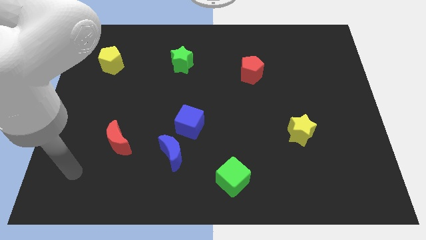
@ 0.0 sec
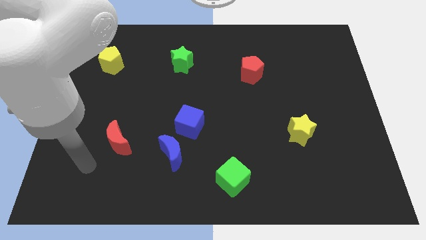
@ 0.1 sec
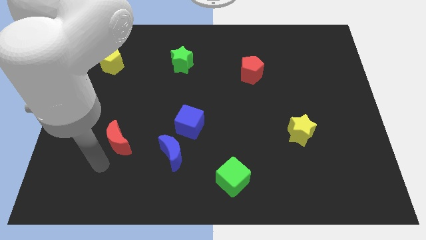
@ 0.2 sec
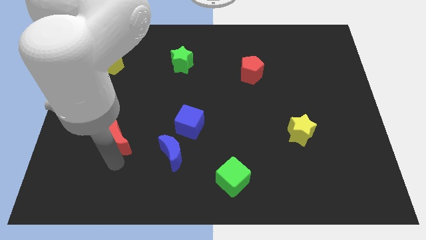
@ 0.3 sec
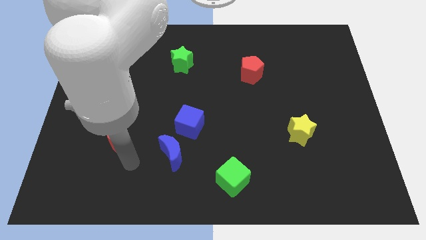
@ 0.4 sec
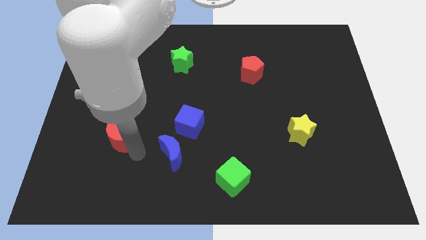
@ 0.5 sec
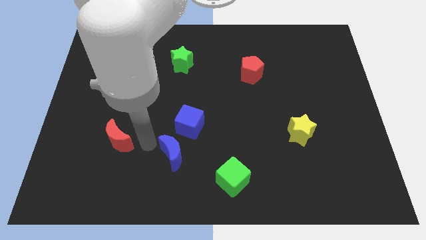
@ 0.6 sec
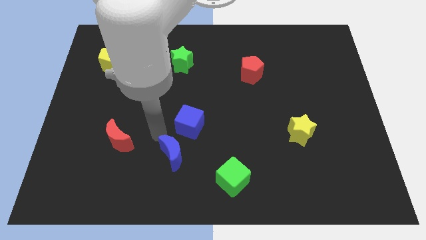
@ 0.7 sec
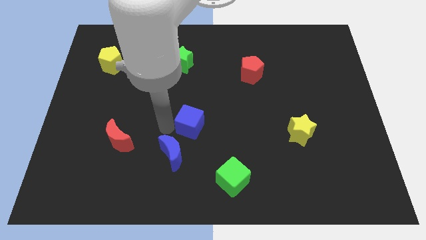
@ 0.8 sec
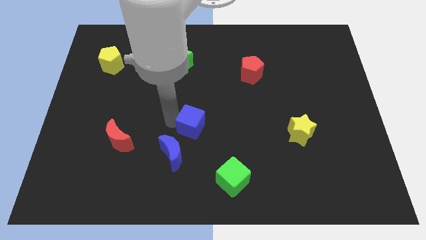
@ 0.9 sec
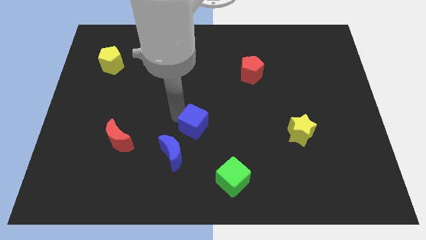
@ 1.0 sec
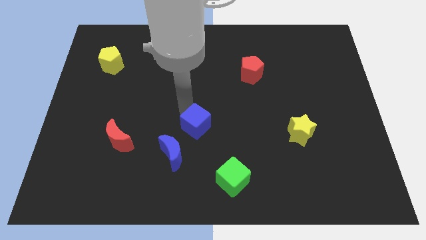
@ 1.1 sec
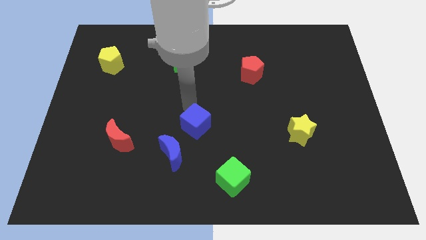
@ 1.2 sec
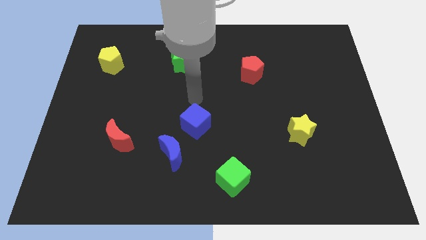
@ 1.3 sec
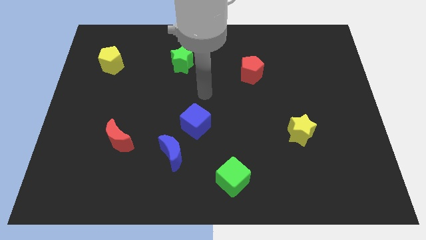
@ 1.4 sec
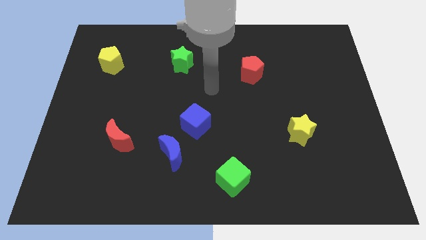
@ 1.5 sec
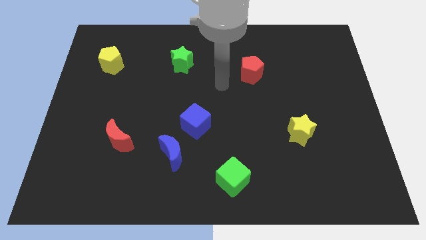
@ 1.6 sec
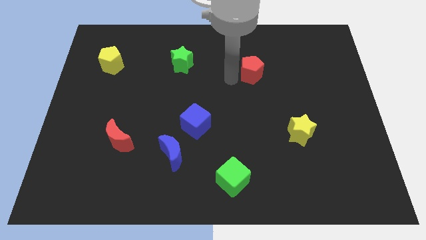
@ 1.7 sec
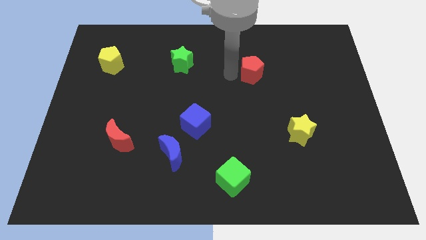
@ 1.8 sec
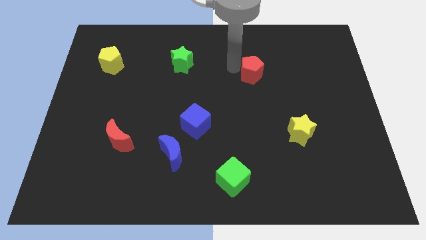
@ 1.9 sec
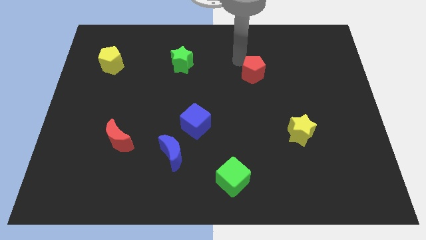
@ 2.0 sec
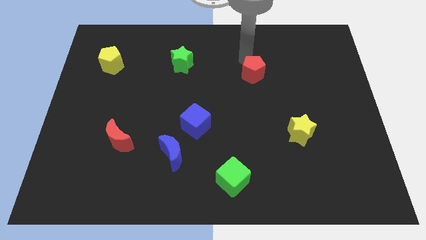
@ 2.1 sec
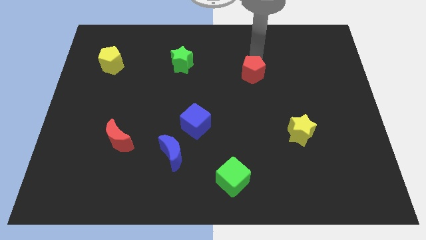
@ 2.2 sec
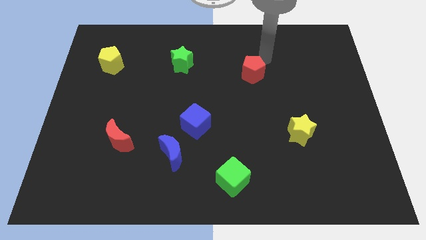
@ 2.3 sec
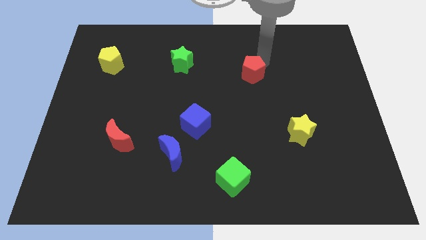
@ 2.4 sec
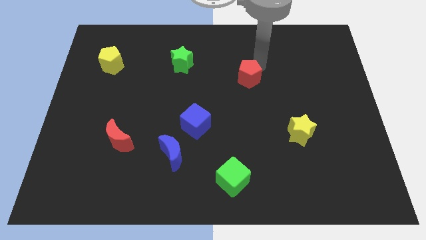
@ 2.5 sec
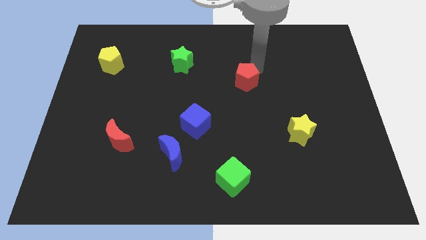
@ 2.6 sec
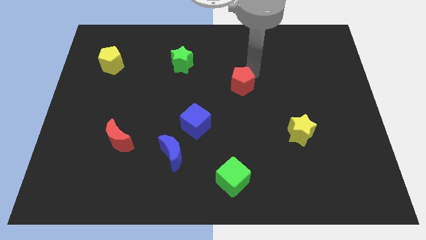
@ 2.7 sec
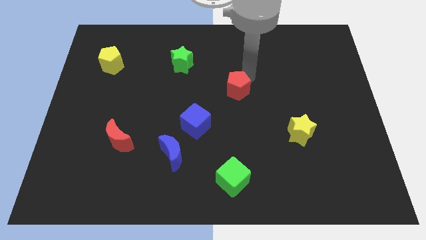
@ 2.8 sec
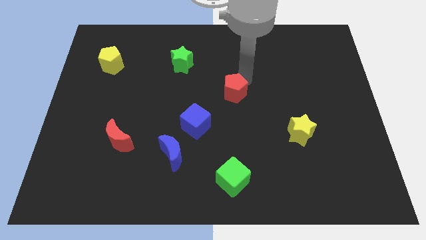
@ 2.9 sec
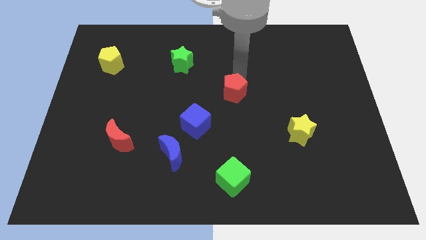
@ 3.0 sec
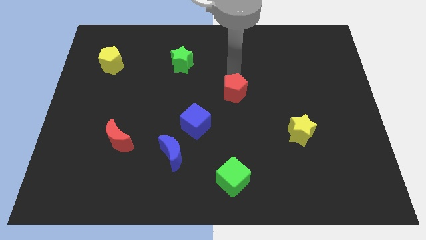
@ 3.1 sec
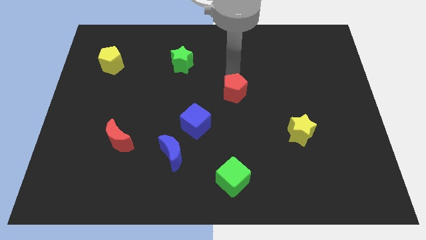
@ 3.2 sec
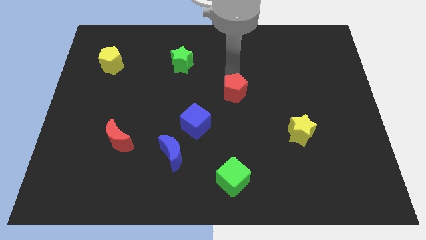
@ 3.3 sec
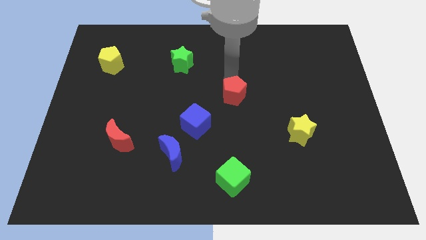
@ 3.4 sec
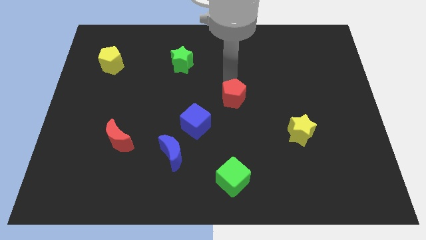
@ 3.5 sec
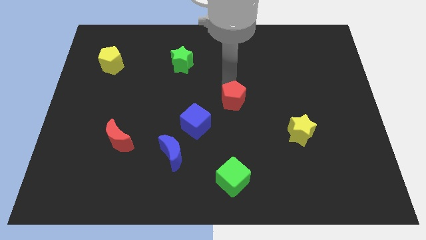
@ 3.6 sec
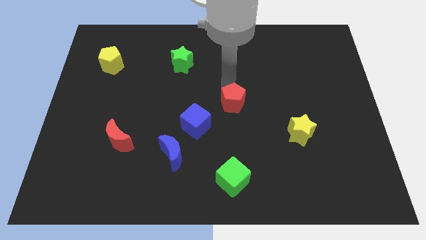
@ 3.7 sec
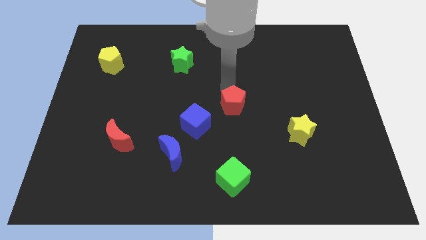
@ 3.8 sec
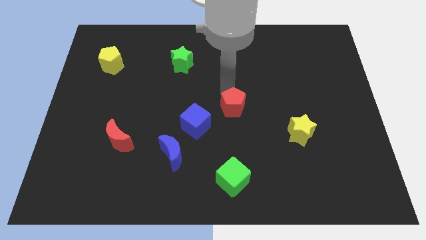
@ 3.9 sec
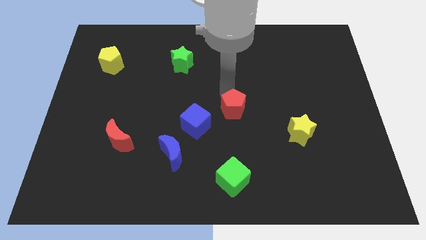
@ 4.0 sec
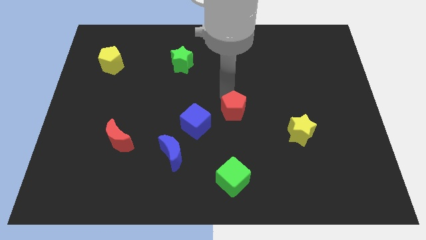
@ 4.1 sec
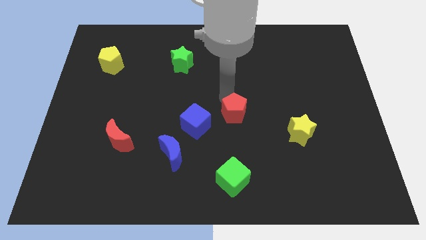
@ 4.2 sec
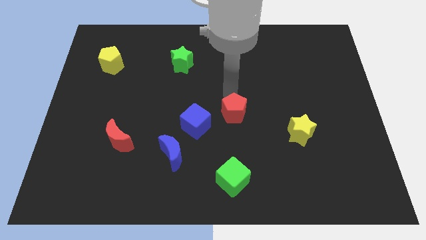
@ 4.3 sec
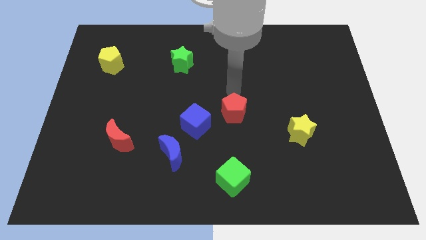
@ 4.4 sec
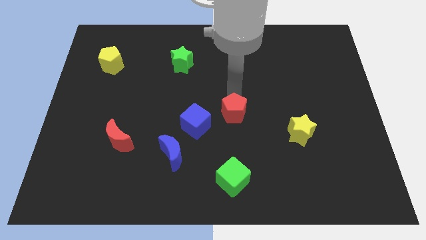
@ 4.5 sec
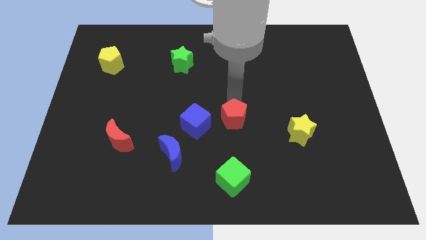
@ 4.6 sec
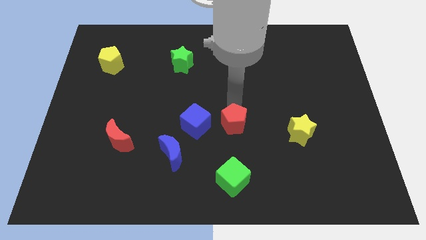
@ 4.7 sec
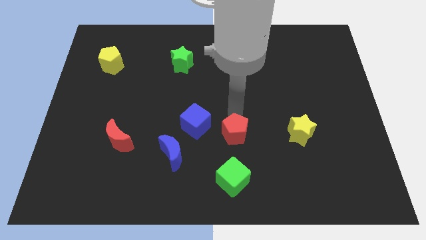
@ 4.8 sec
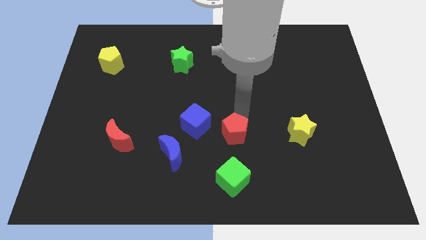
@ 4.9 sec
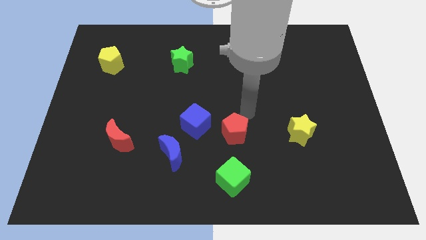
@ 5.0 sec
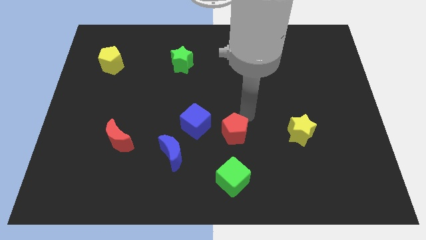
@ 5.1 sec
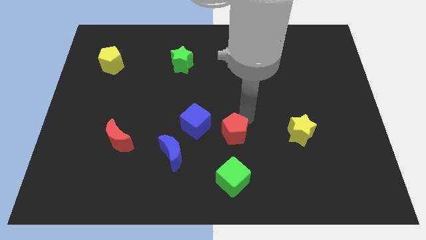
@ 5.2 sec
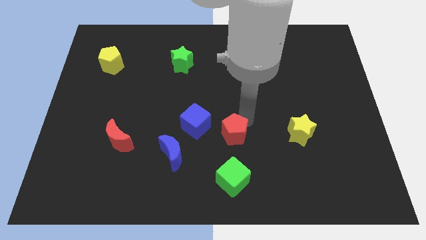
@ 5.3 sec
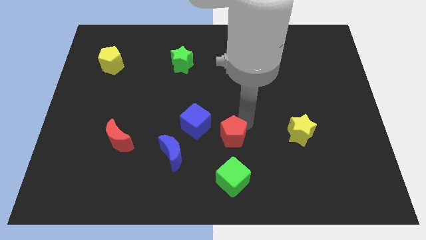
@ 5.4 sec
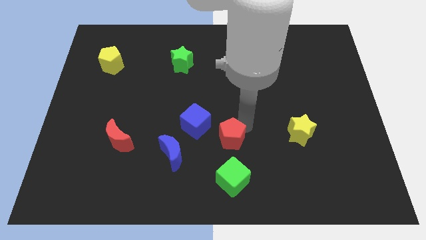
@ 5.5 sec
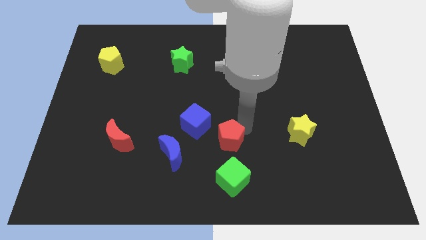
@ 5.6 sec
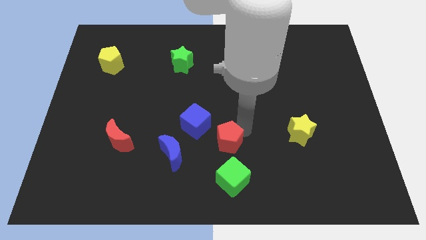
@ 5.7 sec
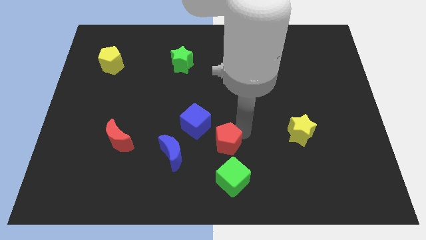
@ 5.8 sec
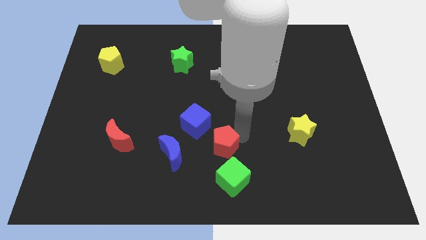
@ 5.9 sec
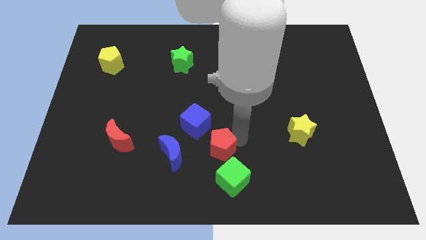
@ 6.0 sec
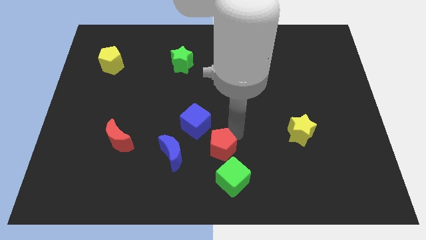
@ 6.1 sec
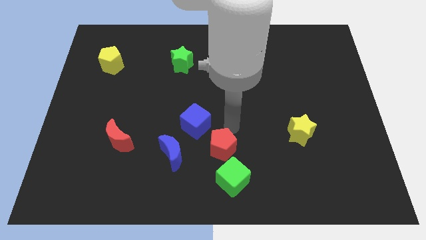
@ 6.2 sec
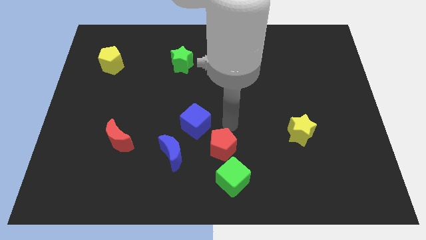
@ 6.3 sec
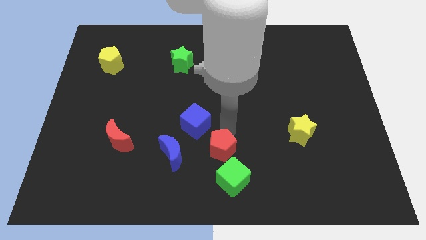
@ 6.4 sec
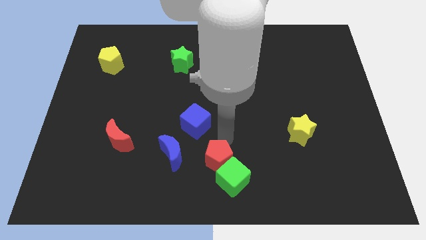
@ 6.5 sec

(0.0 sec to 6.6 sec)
put the red pentagon to the bottom side
